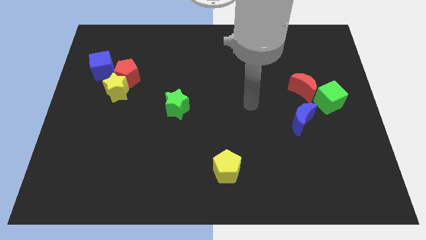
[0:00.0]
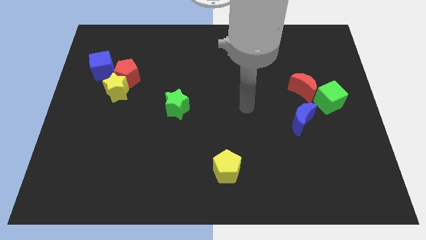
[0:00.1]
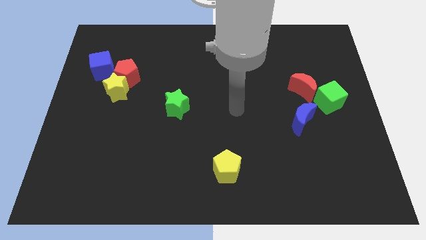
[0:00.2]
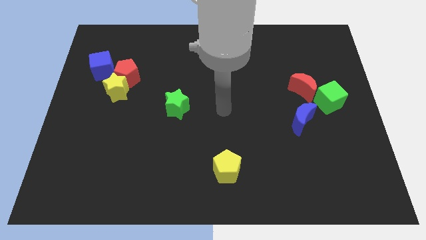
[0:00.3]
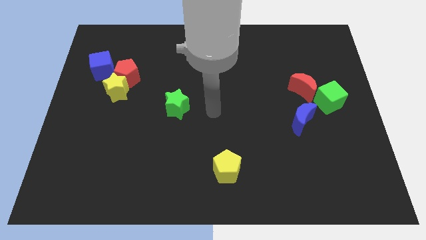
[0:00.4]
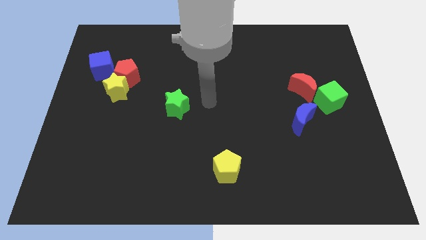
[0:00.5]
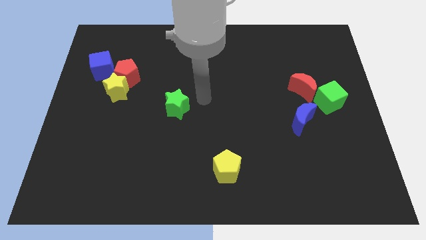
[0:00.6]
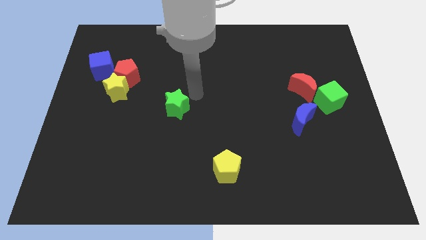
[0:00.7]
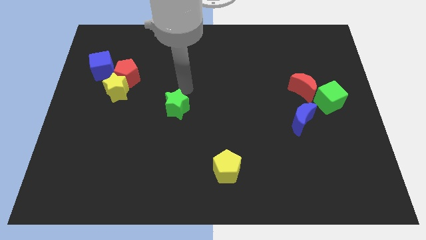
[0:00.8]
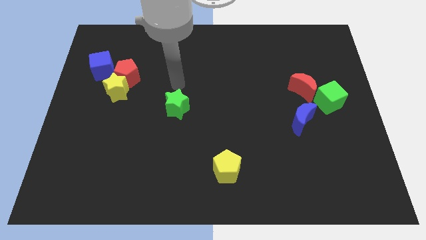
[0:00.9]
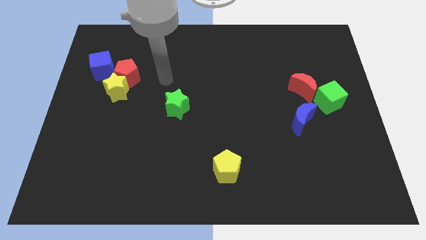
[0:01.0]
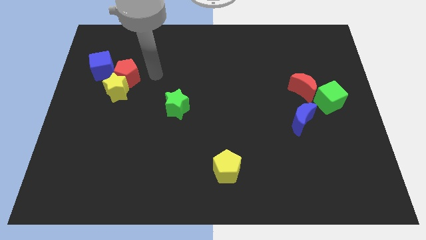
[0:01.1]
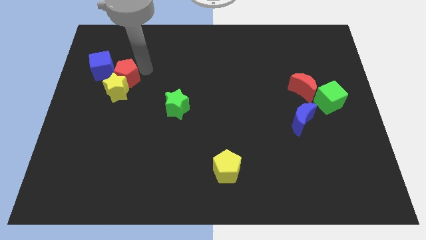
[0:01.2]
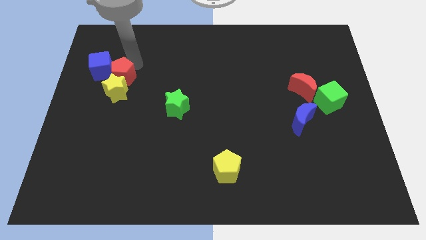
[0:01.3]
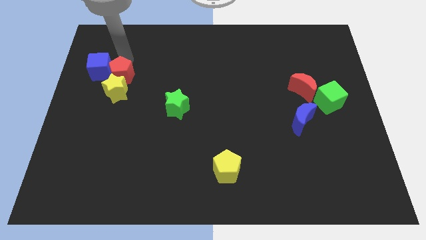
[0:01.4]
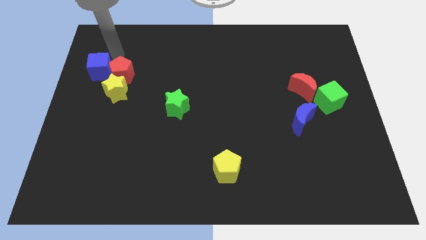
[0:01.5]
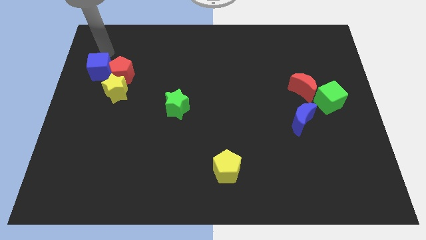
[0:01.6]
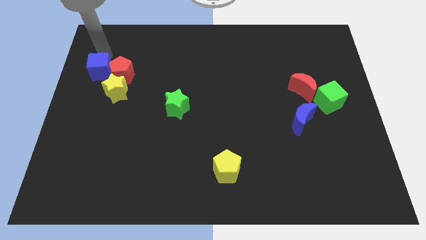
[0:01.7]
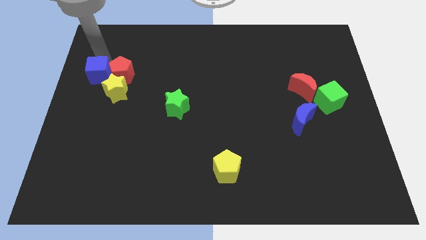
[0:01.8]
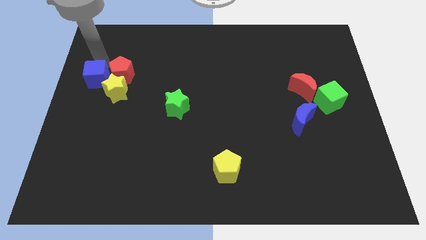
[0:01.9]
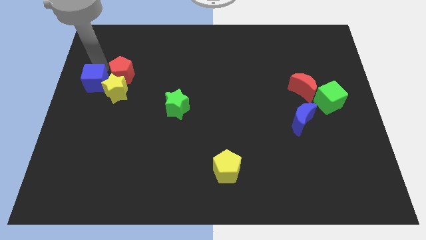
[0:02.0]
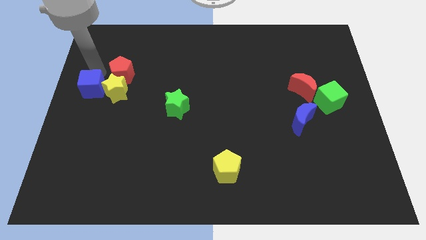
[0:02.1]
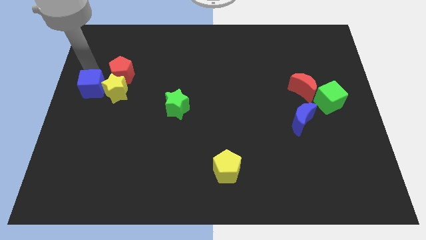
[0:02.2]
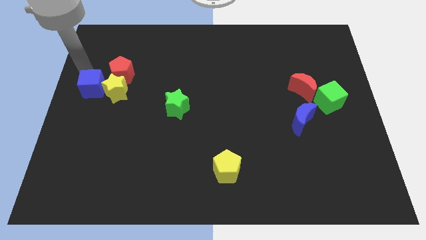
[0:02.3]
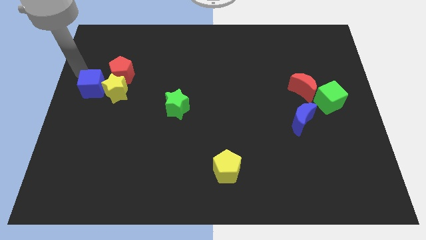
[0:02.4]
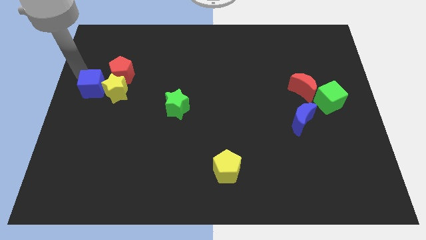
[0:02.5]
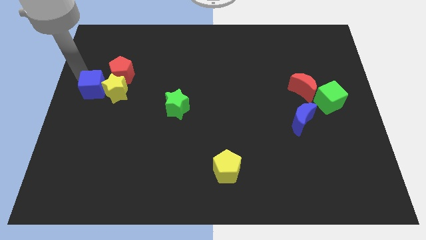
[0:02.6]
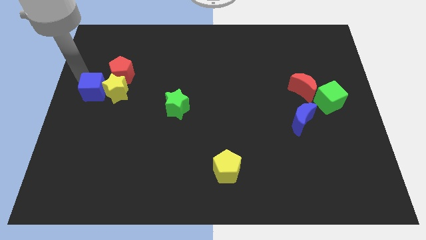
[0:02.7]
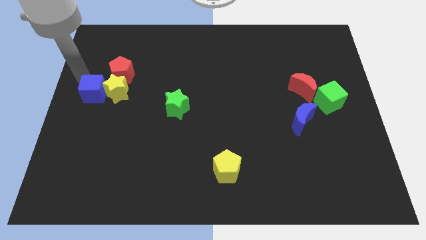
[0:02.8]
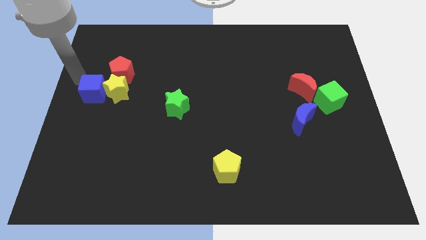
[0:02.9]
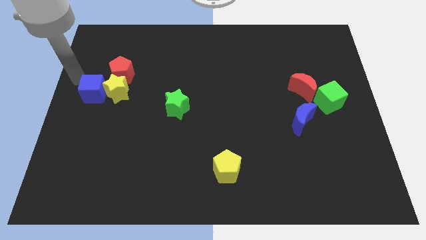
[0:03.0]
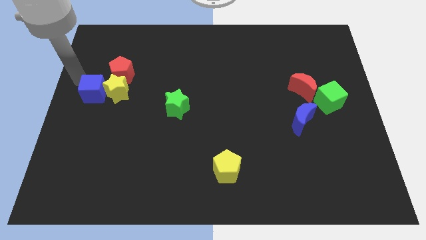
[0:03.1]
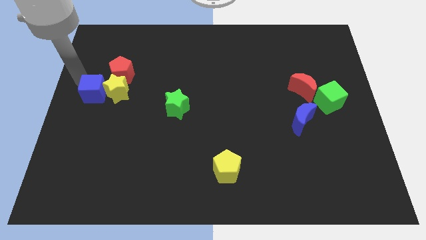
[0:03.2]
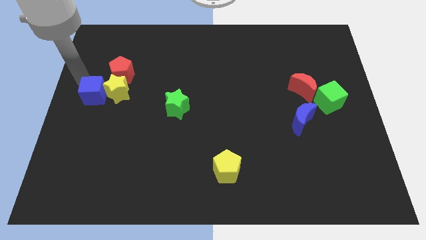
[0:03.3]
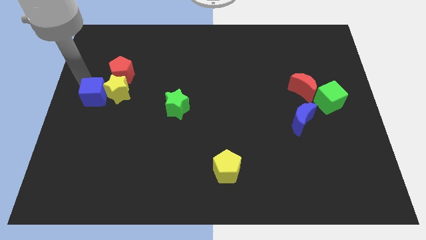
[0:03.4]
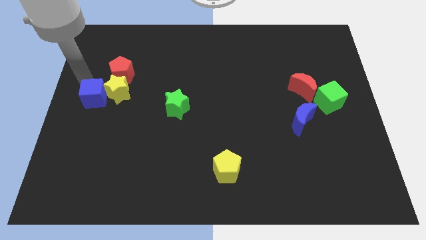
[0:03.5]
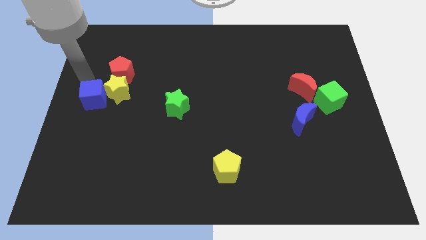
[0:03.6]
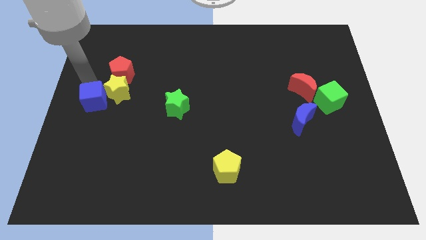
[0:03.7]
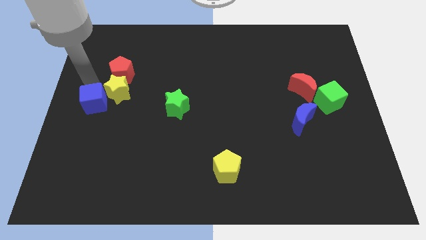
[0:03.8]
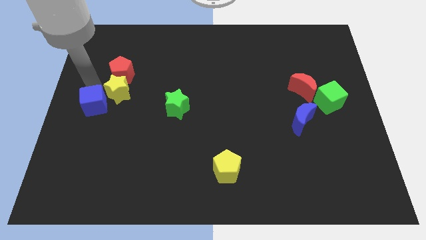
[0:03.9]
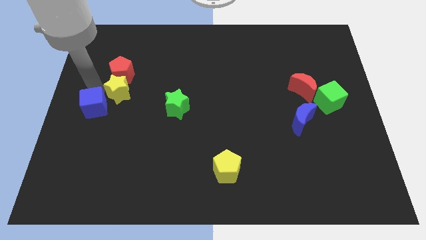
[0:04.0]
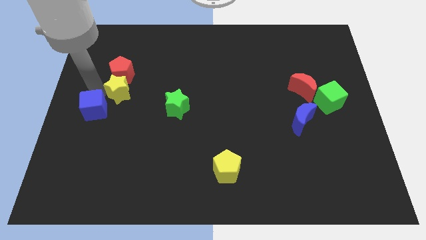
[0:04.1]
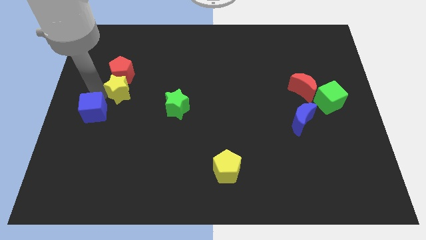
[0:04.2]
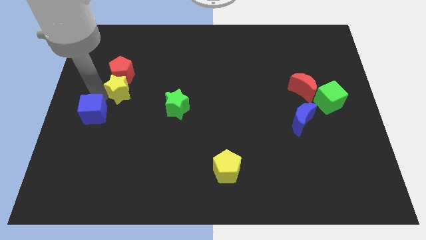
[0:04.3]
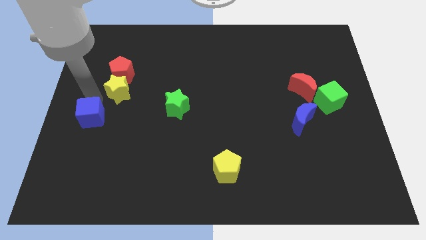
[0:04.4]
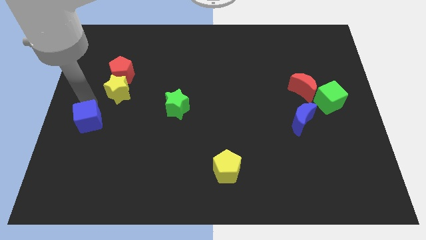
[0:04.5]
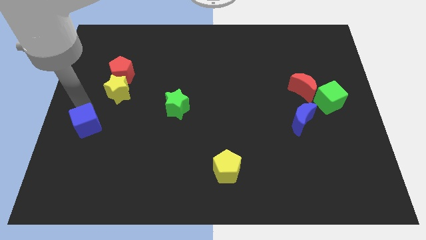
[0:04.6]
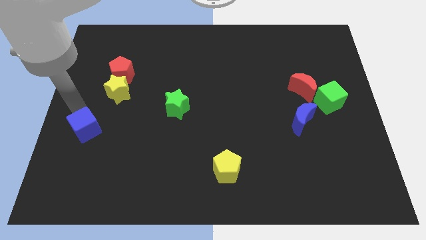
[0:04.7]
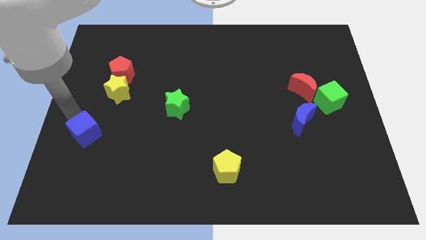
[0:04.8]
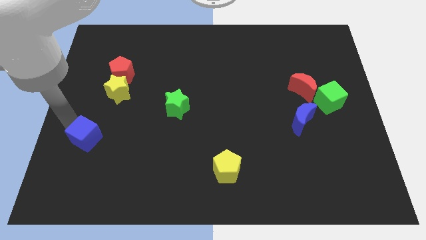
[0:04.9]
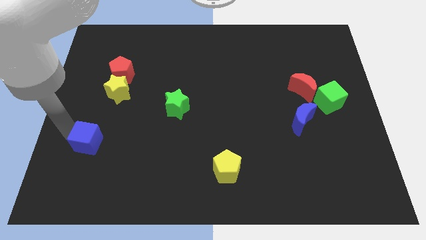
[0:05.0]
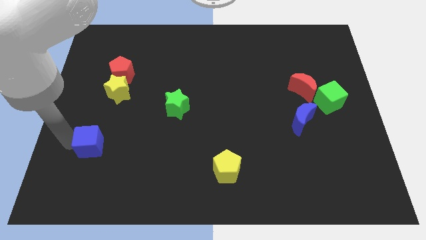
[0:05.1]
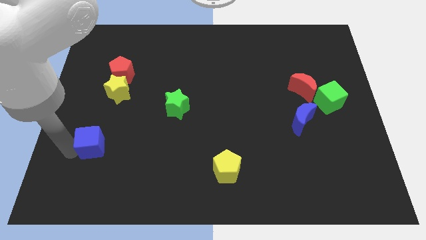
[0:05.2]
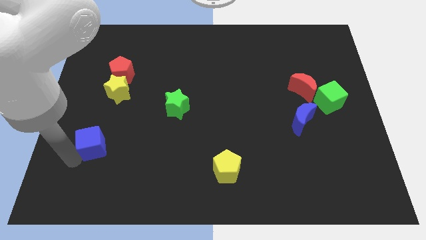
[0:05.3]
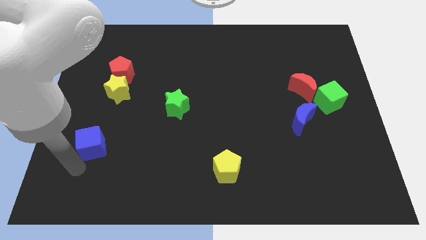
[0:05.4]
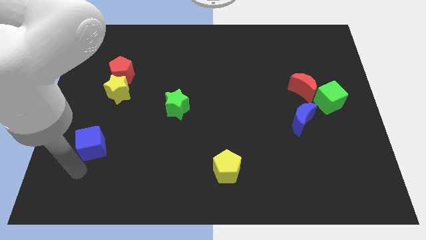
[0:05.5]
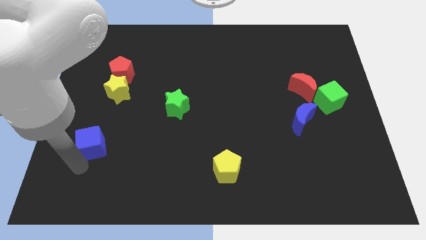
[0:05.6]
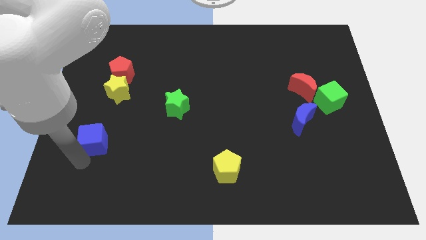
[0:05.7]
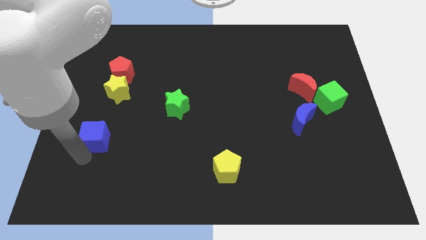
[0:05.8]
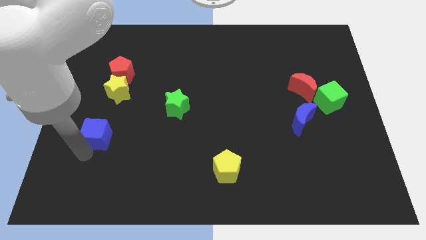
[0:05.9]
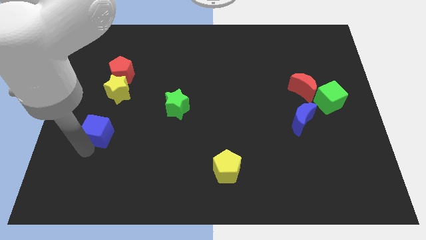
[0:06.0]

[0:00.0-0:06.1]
move the blue cube diagonally downwards and right a little

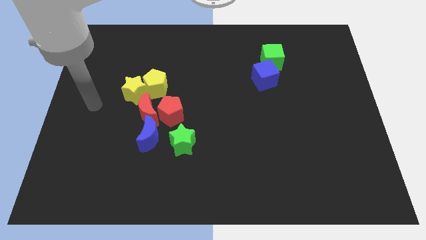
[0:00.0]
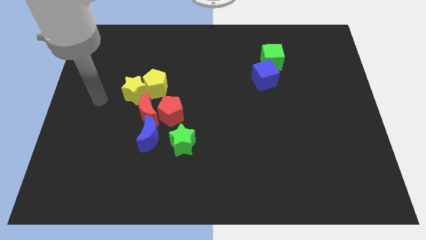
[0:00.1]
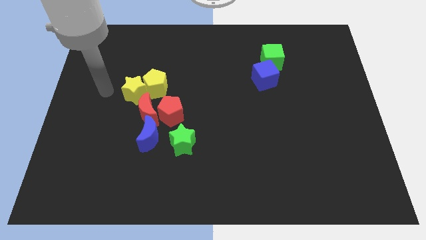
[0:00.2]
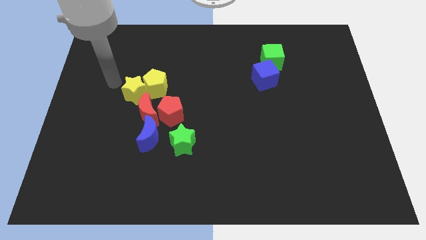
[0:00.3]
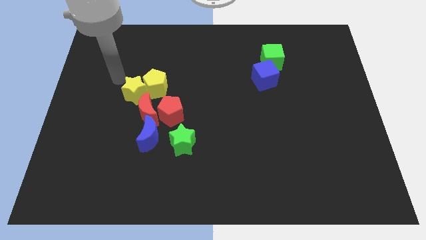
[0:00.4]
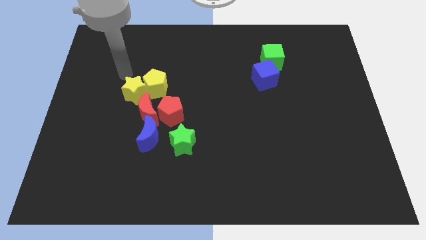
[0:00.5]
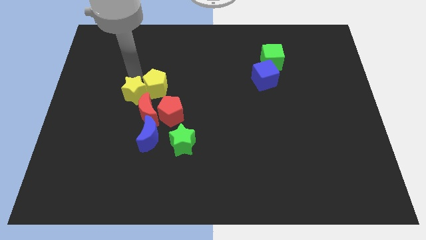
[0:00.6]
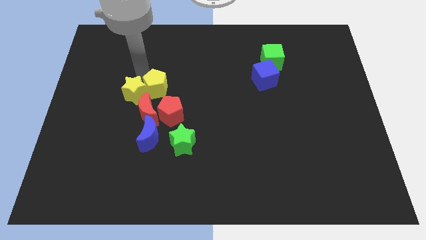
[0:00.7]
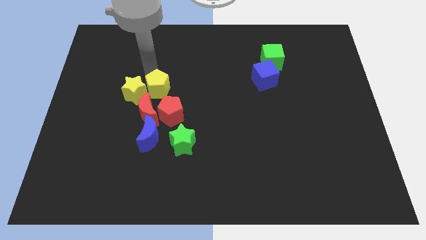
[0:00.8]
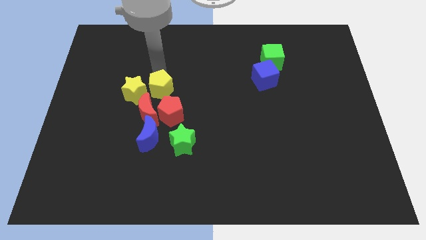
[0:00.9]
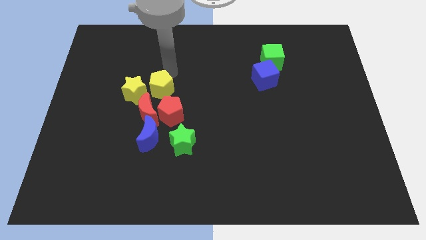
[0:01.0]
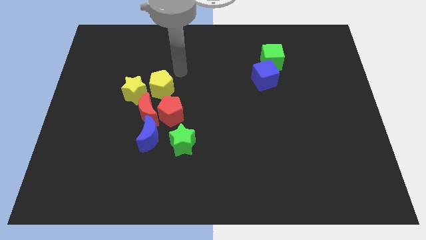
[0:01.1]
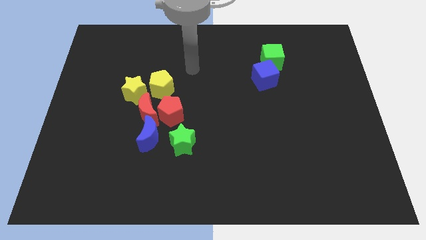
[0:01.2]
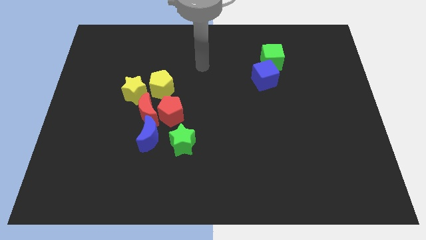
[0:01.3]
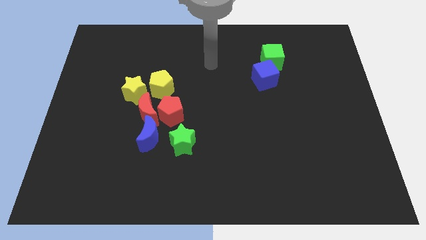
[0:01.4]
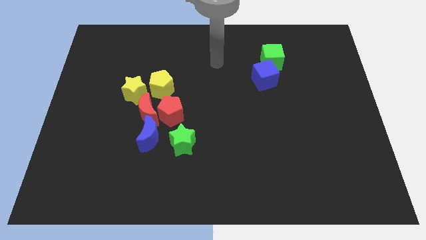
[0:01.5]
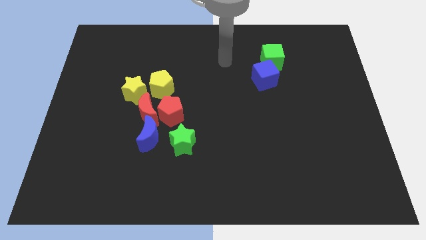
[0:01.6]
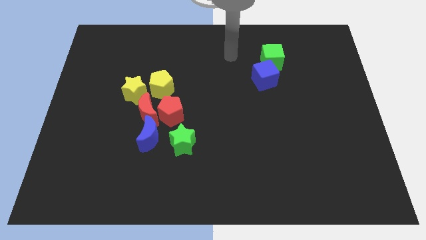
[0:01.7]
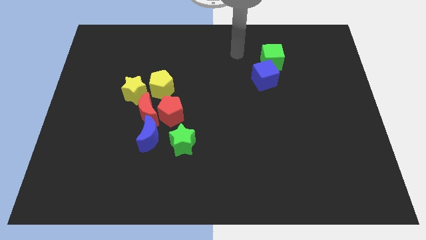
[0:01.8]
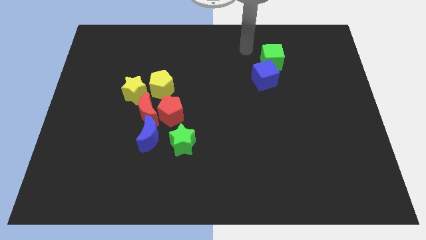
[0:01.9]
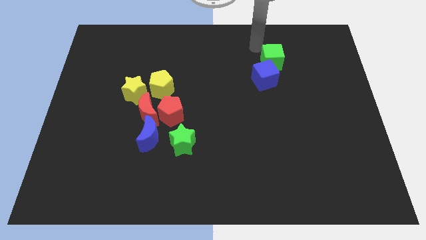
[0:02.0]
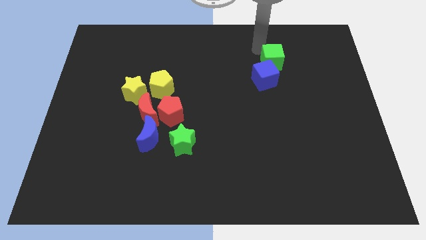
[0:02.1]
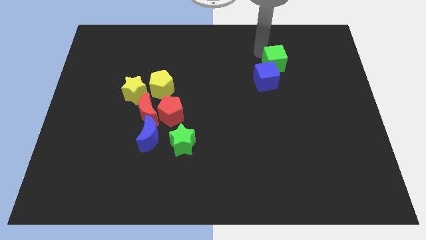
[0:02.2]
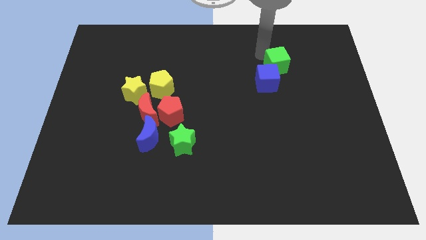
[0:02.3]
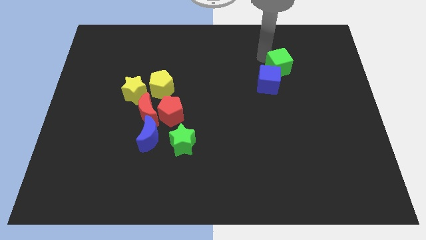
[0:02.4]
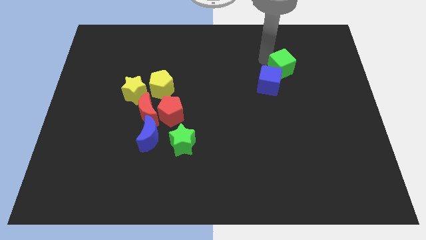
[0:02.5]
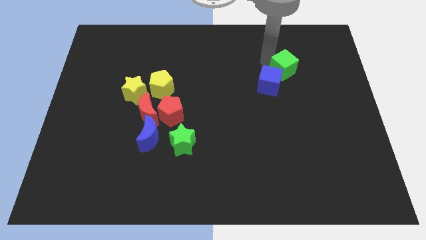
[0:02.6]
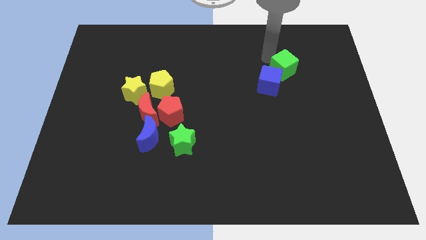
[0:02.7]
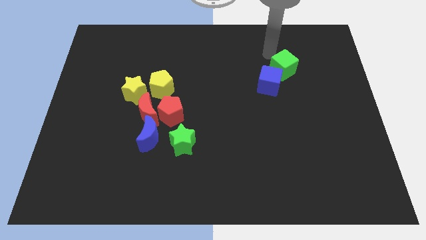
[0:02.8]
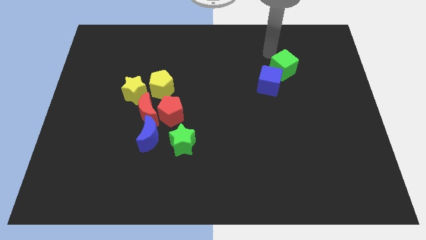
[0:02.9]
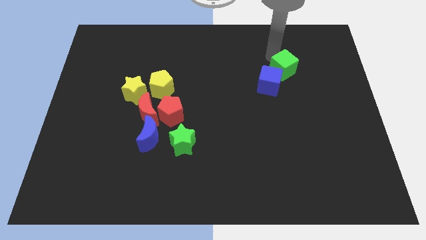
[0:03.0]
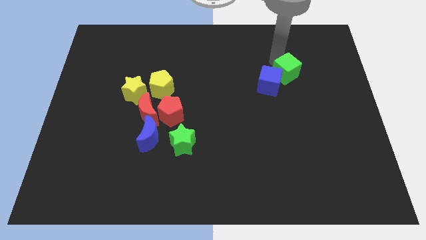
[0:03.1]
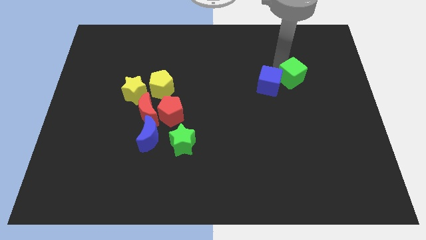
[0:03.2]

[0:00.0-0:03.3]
slightly slide the green cube diagonally down and to the right
